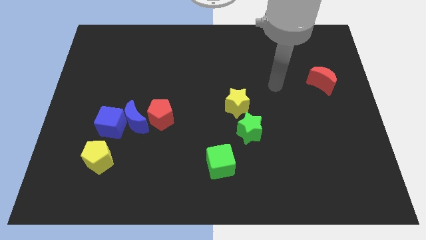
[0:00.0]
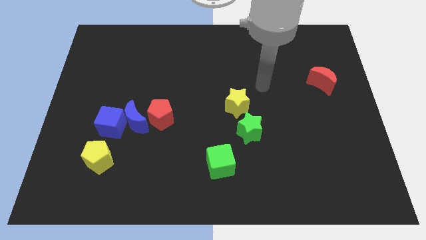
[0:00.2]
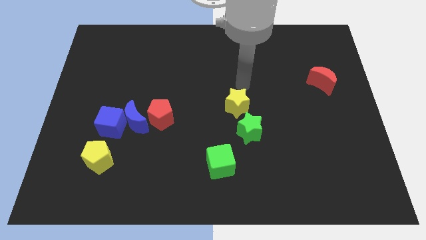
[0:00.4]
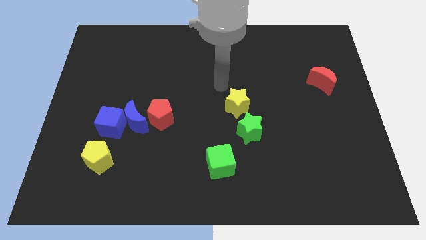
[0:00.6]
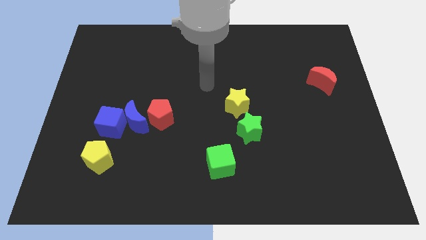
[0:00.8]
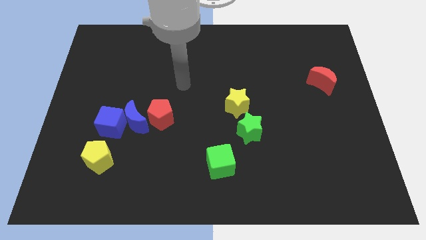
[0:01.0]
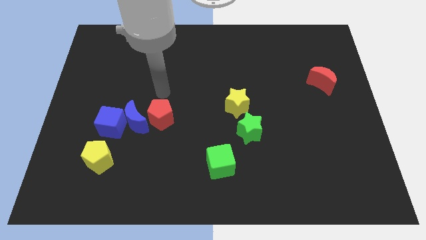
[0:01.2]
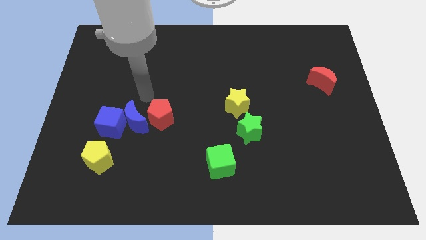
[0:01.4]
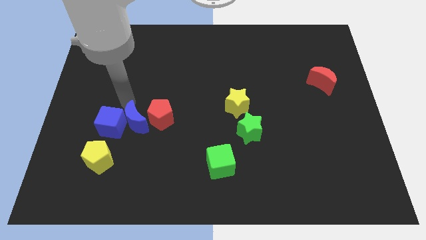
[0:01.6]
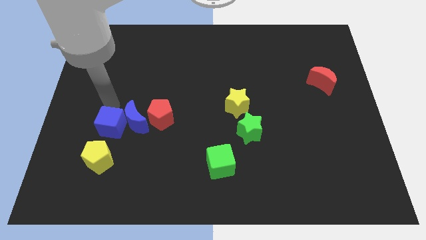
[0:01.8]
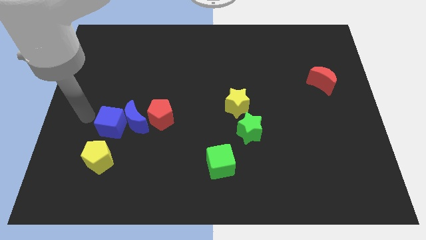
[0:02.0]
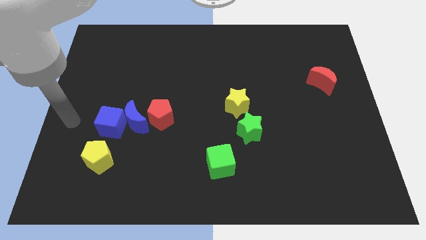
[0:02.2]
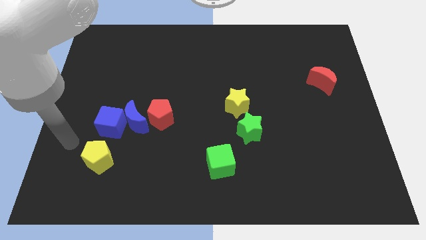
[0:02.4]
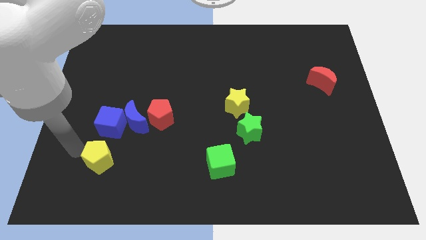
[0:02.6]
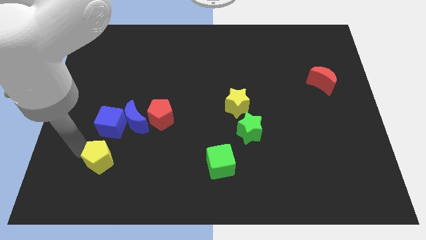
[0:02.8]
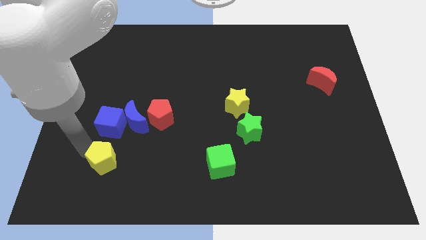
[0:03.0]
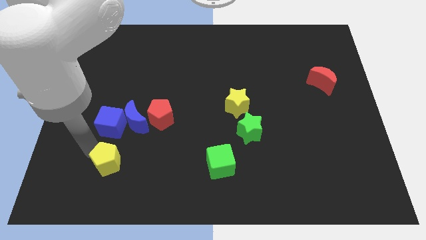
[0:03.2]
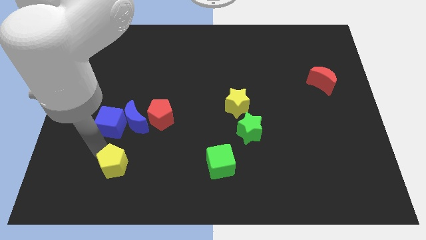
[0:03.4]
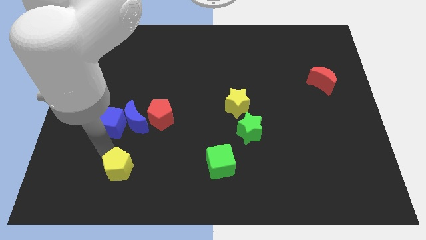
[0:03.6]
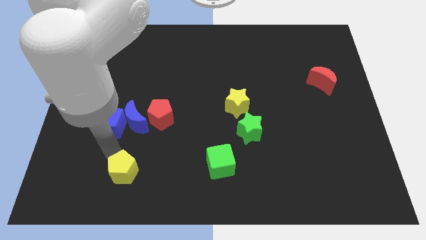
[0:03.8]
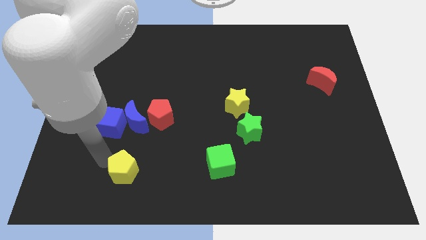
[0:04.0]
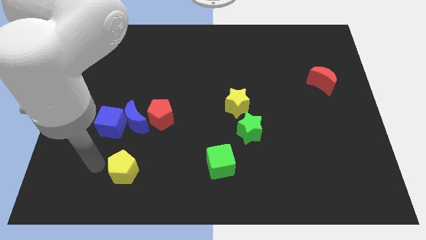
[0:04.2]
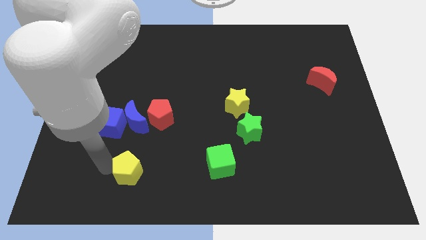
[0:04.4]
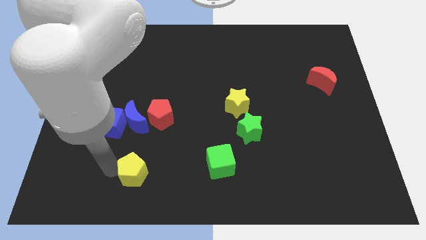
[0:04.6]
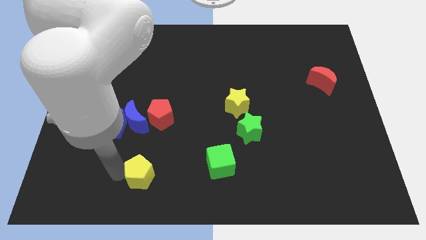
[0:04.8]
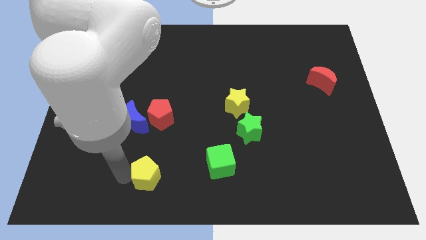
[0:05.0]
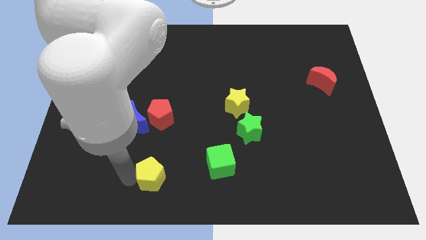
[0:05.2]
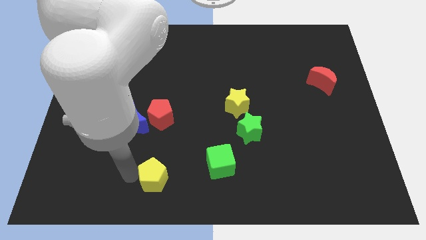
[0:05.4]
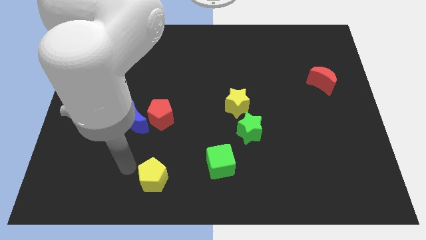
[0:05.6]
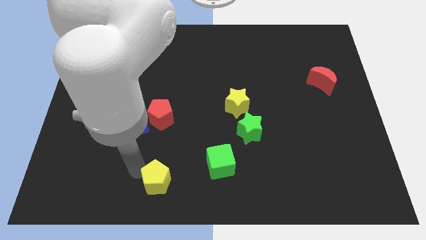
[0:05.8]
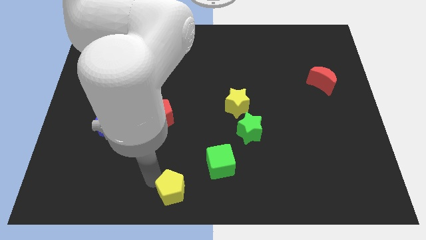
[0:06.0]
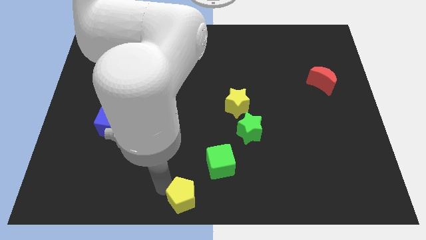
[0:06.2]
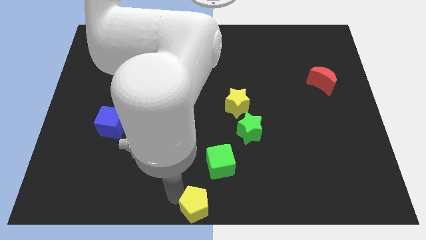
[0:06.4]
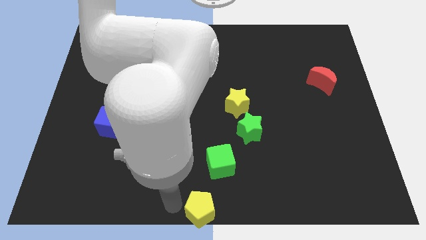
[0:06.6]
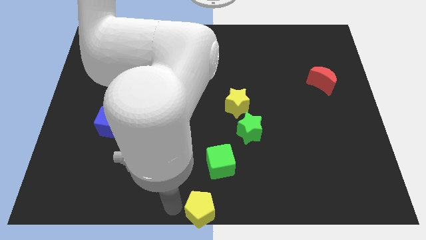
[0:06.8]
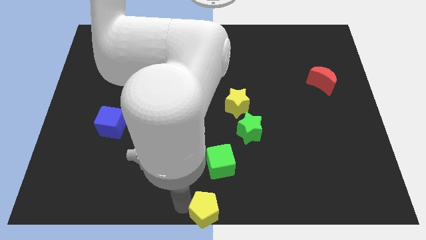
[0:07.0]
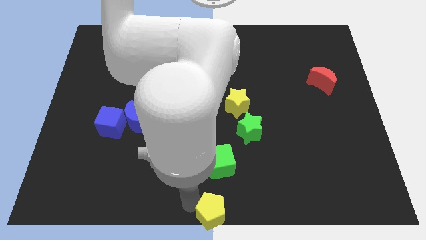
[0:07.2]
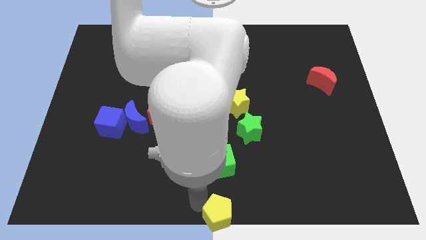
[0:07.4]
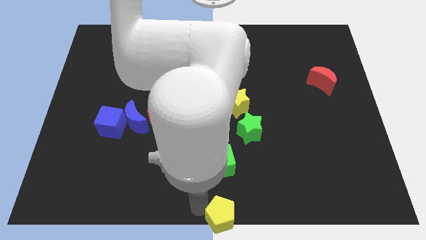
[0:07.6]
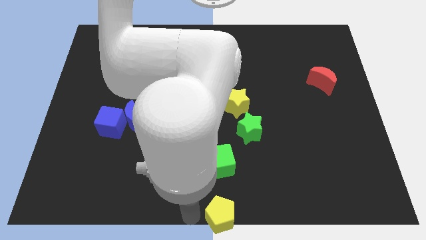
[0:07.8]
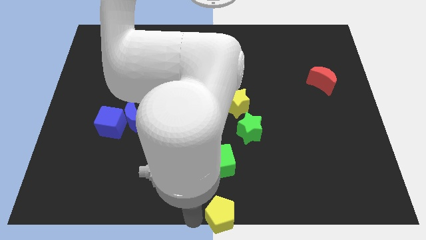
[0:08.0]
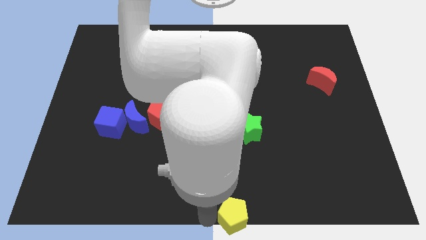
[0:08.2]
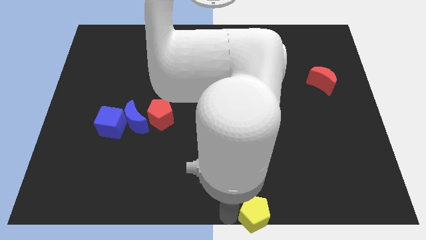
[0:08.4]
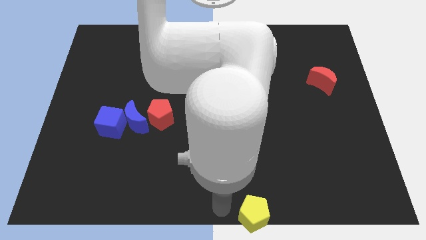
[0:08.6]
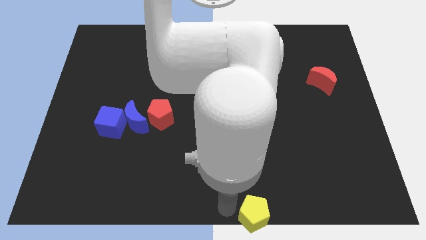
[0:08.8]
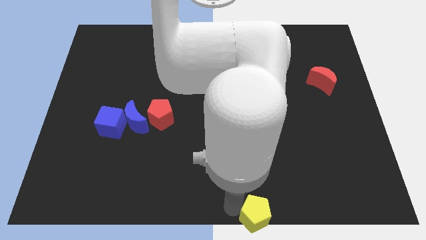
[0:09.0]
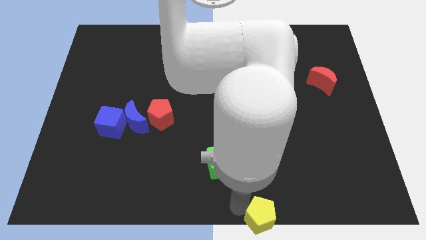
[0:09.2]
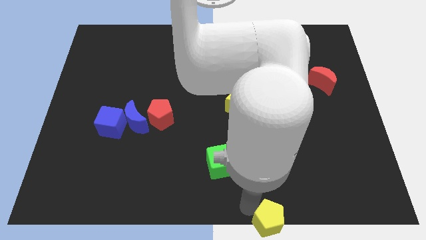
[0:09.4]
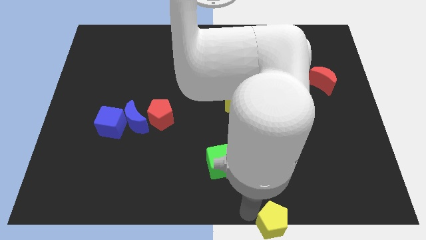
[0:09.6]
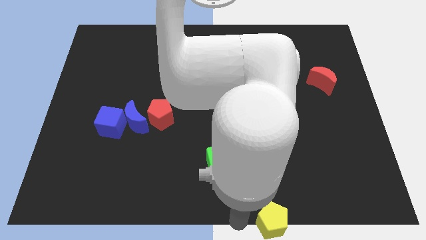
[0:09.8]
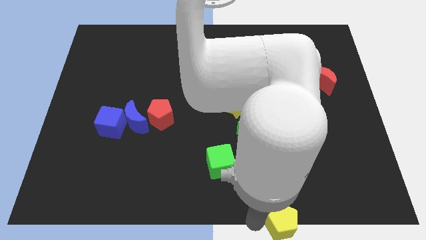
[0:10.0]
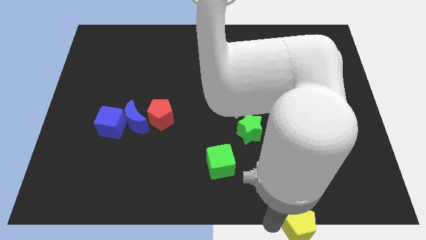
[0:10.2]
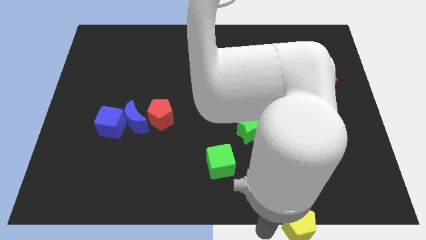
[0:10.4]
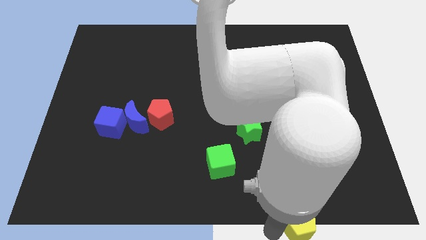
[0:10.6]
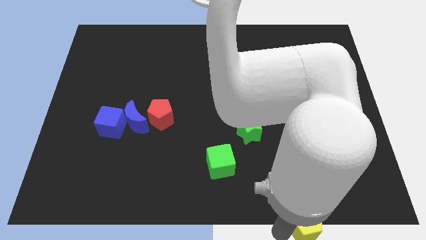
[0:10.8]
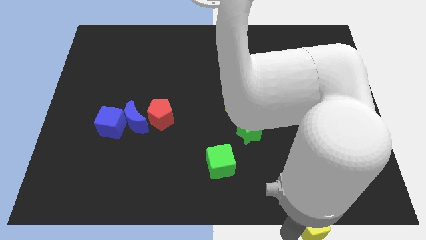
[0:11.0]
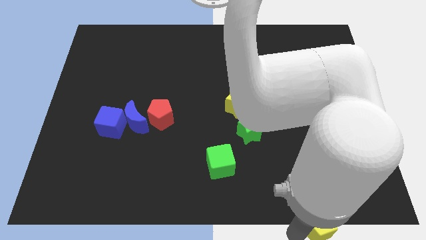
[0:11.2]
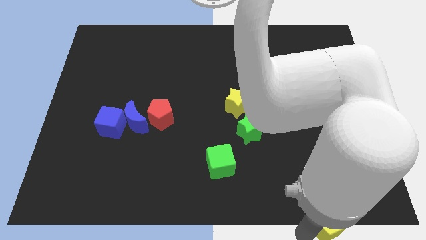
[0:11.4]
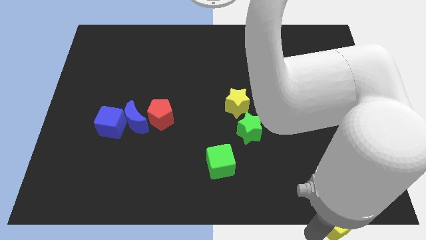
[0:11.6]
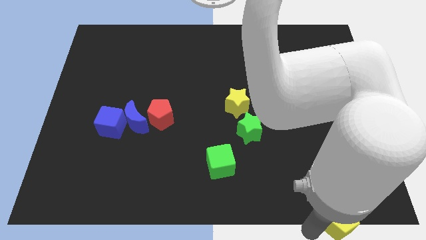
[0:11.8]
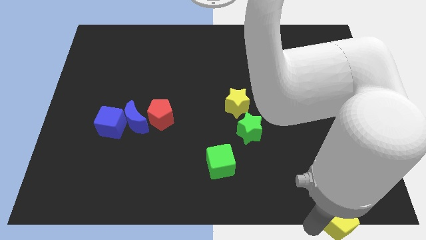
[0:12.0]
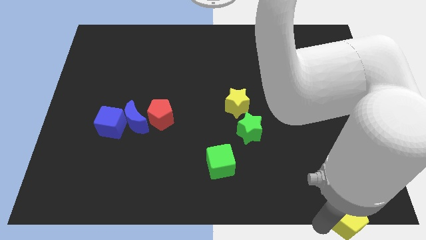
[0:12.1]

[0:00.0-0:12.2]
slide the yellow pentagon to the bottom right of the board

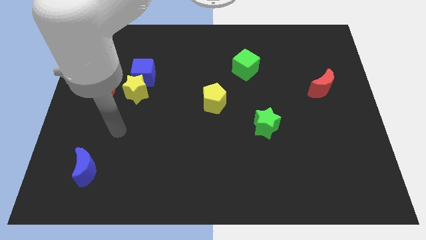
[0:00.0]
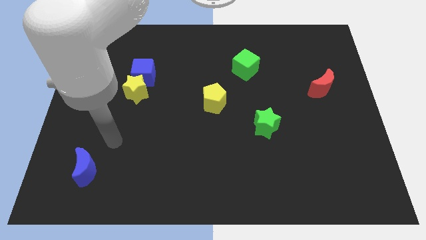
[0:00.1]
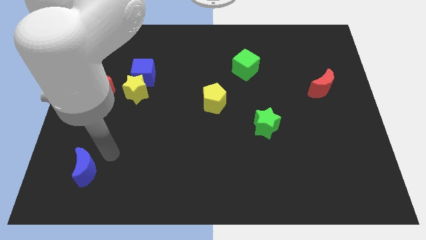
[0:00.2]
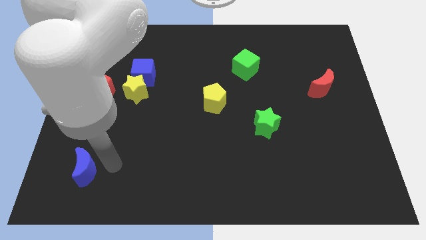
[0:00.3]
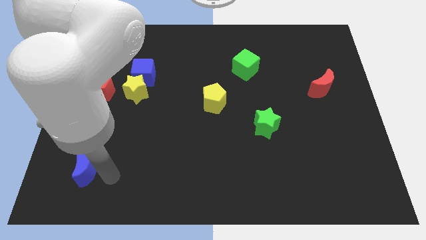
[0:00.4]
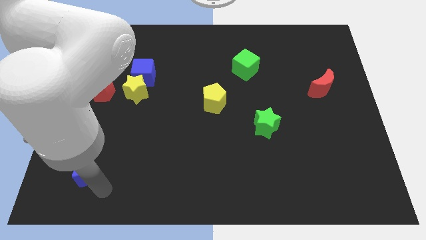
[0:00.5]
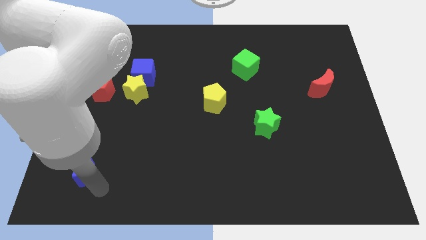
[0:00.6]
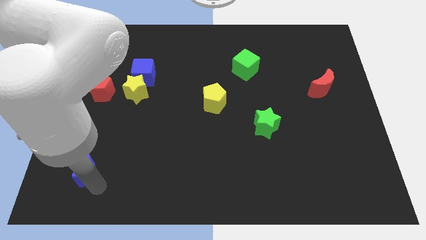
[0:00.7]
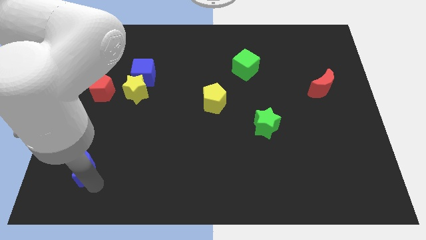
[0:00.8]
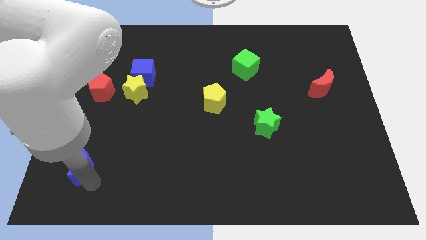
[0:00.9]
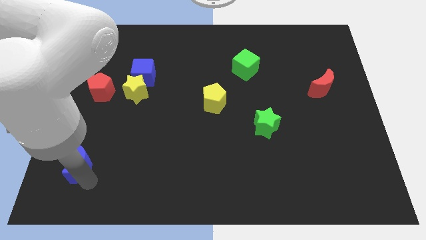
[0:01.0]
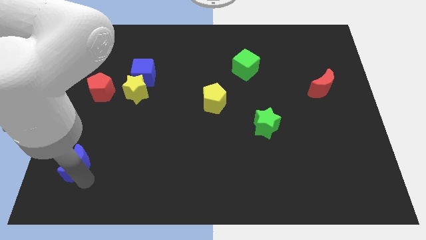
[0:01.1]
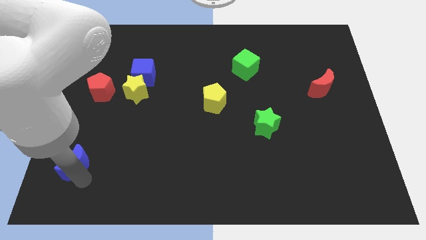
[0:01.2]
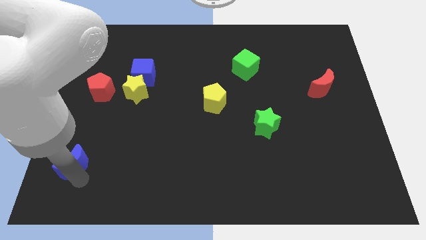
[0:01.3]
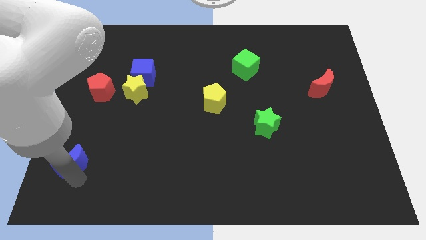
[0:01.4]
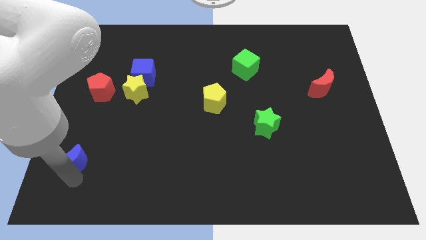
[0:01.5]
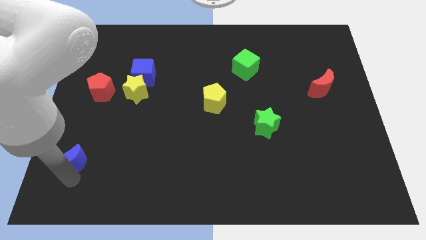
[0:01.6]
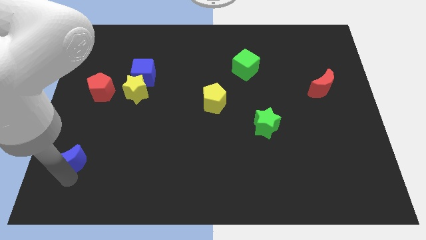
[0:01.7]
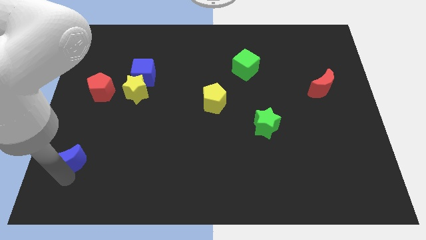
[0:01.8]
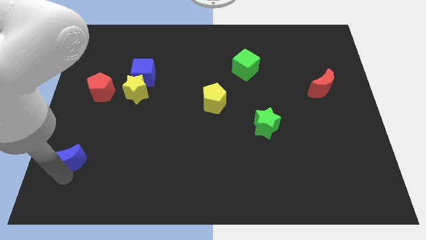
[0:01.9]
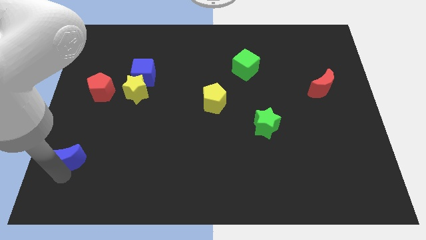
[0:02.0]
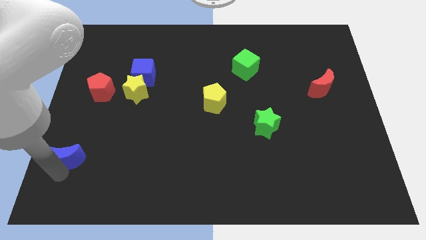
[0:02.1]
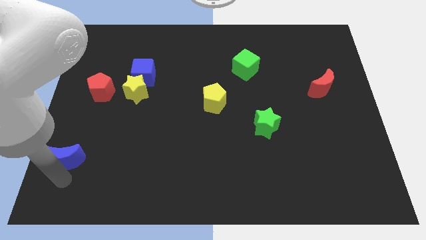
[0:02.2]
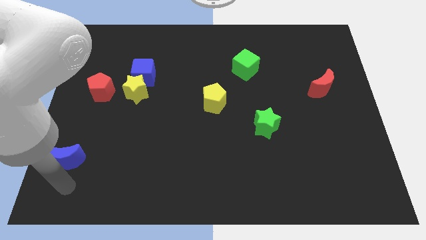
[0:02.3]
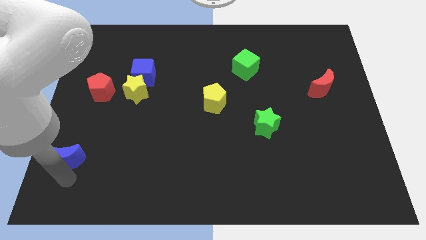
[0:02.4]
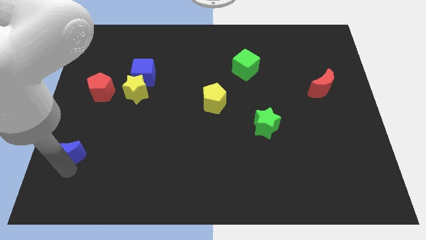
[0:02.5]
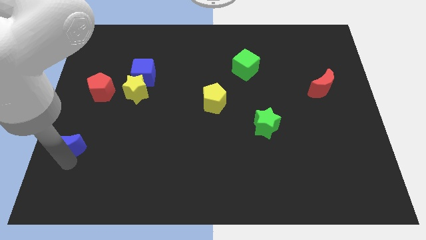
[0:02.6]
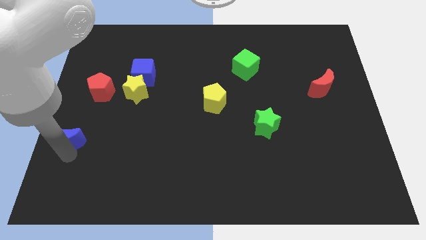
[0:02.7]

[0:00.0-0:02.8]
move the blue moon to the left side of the board
